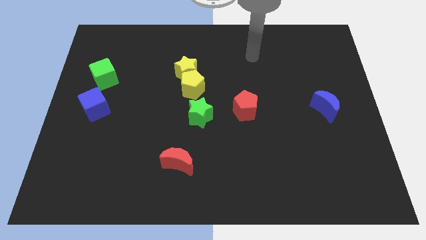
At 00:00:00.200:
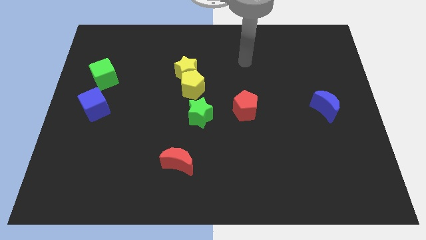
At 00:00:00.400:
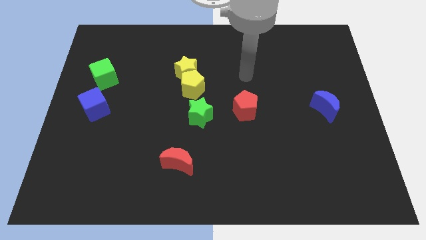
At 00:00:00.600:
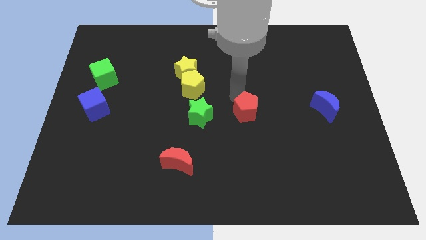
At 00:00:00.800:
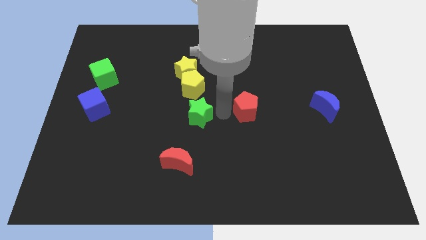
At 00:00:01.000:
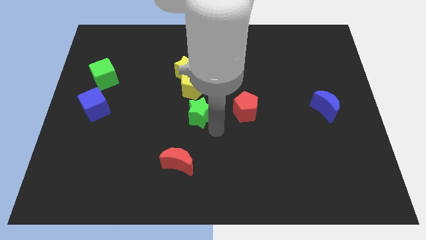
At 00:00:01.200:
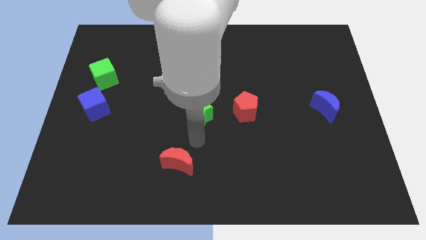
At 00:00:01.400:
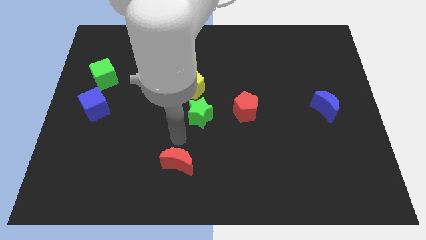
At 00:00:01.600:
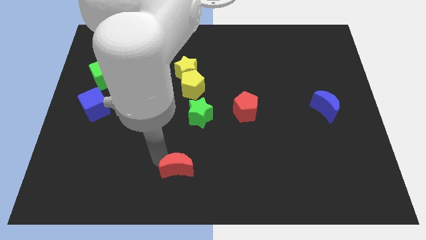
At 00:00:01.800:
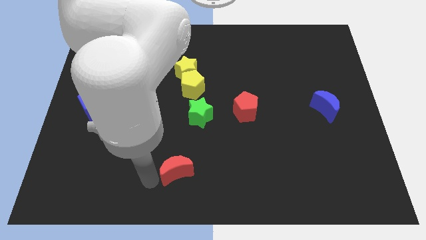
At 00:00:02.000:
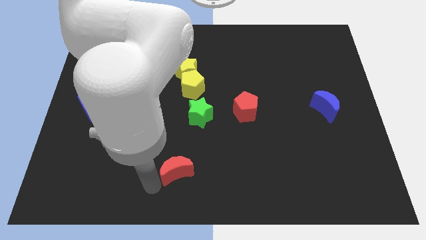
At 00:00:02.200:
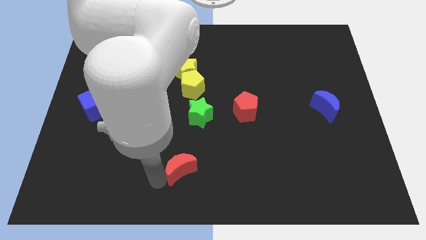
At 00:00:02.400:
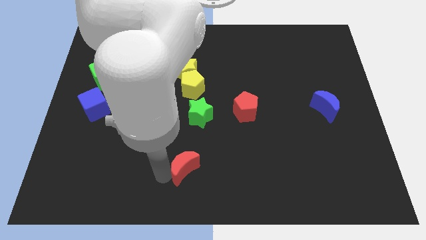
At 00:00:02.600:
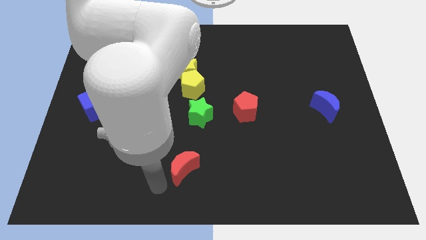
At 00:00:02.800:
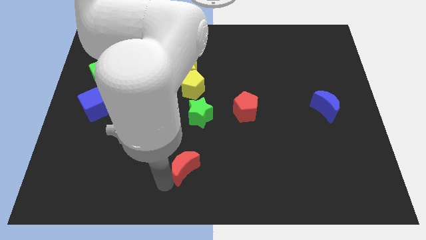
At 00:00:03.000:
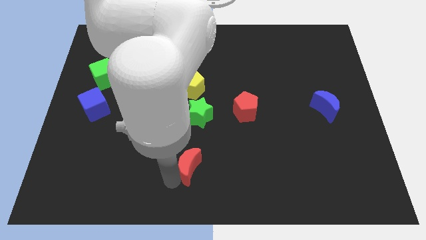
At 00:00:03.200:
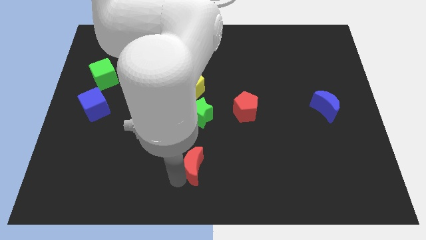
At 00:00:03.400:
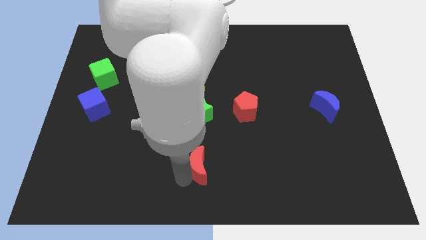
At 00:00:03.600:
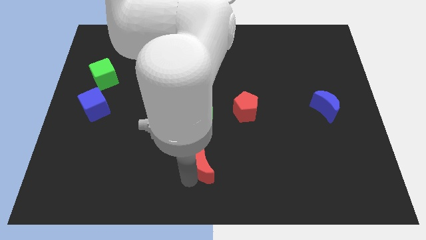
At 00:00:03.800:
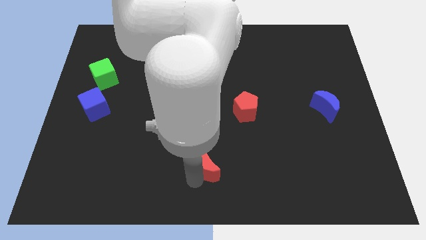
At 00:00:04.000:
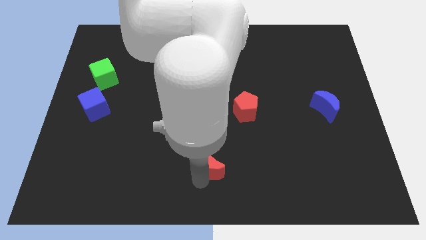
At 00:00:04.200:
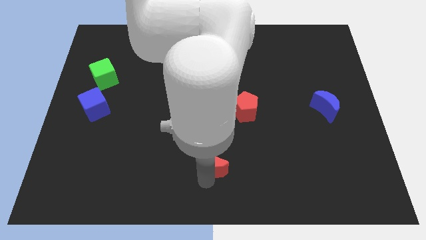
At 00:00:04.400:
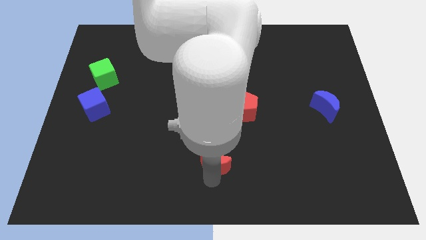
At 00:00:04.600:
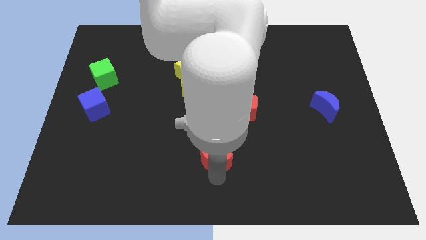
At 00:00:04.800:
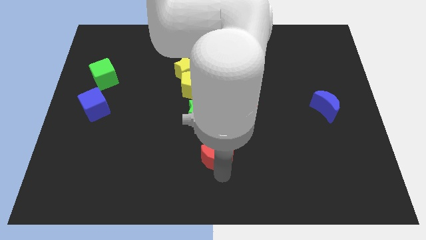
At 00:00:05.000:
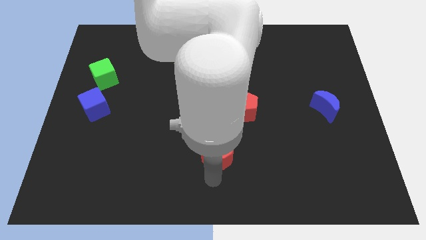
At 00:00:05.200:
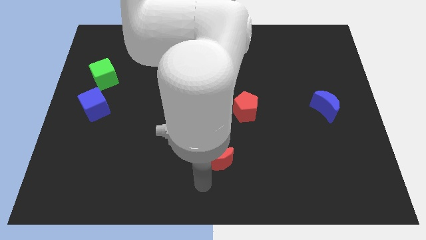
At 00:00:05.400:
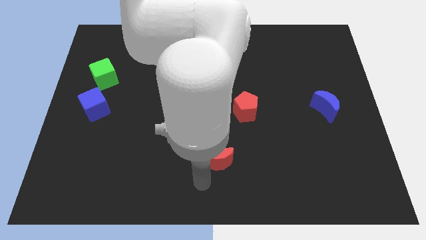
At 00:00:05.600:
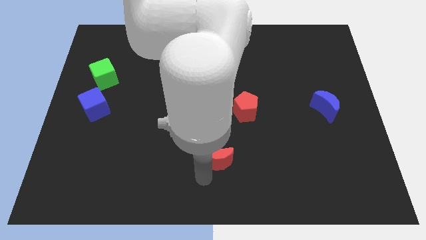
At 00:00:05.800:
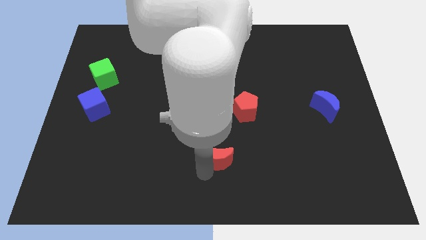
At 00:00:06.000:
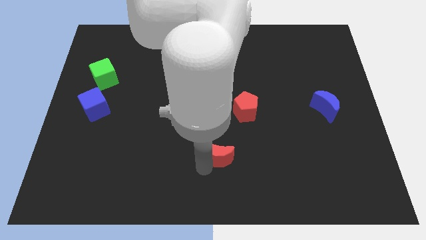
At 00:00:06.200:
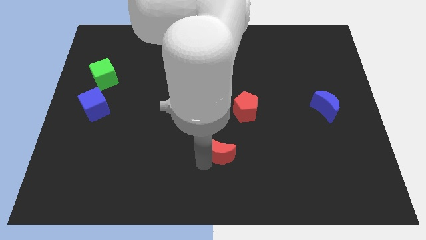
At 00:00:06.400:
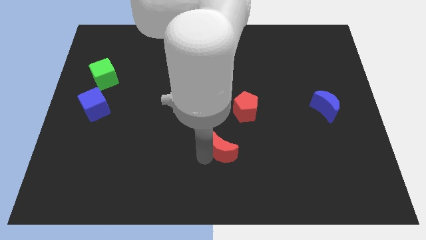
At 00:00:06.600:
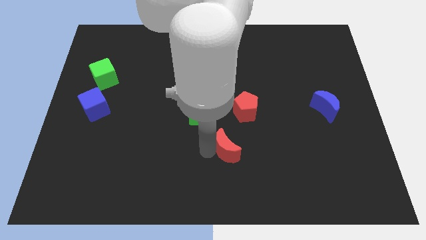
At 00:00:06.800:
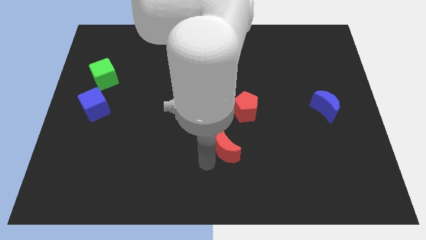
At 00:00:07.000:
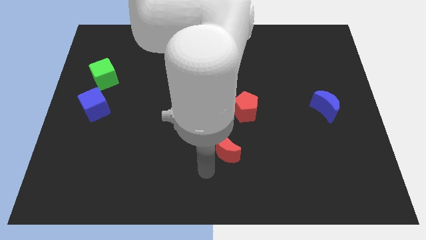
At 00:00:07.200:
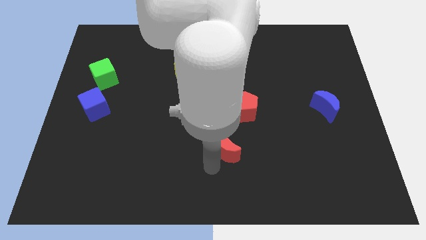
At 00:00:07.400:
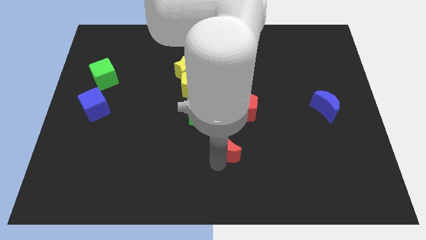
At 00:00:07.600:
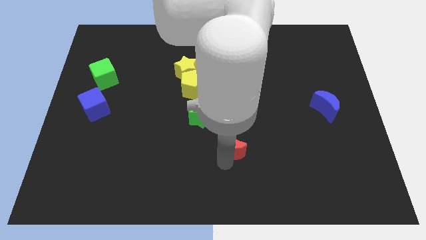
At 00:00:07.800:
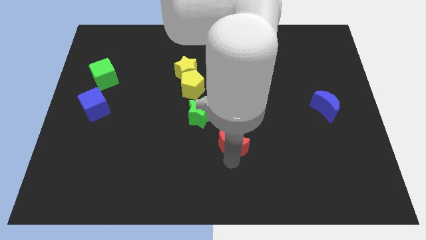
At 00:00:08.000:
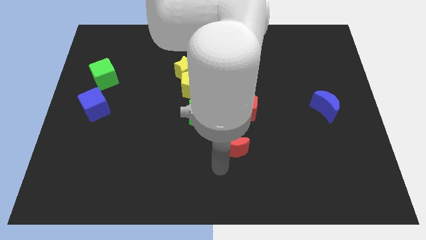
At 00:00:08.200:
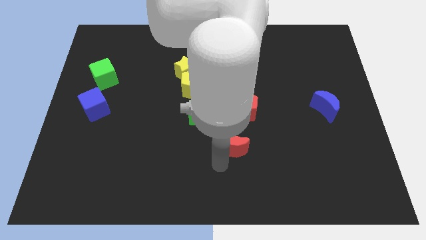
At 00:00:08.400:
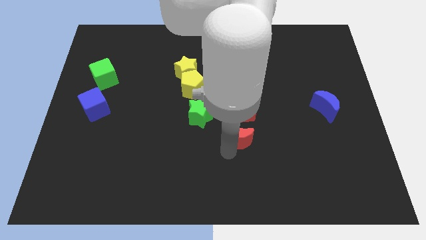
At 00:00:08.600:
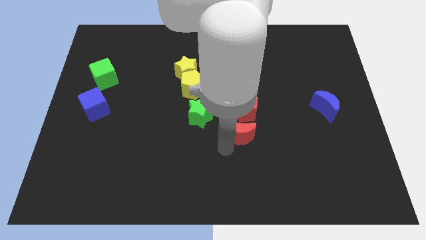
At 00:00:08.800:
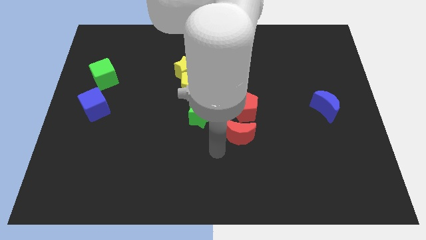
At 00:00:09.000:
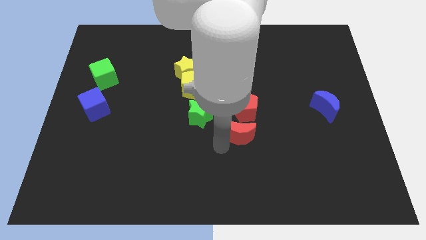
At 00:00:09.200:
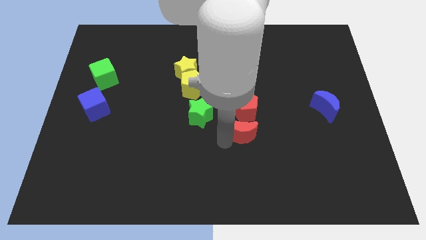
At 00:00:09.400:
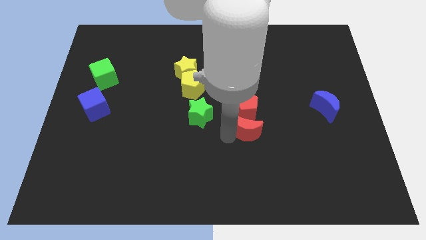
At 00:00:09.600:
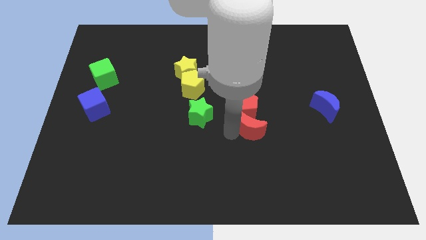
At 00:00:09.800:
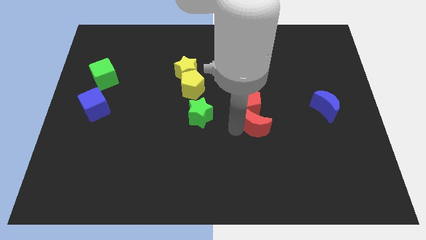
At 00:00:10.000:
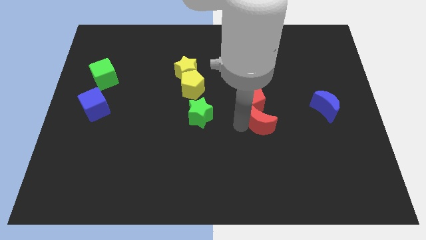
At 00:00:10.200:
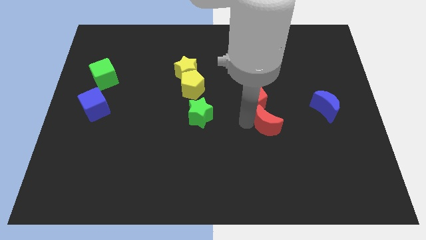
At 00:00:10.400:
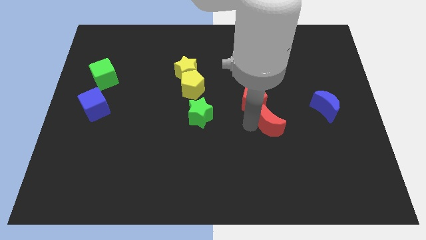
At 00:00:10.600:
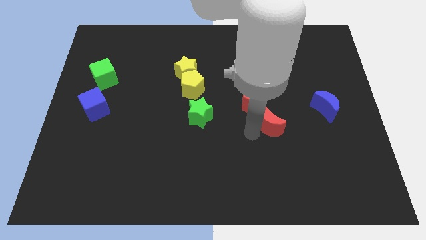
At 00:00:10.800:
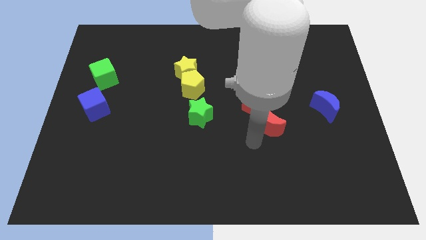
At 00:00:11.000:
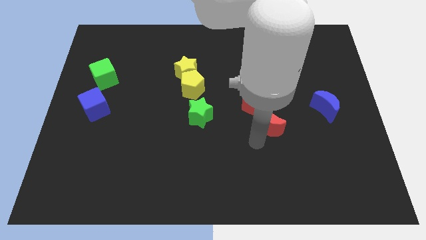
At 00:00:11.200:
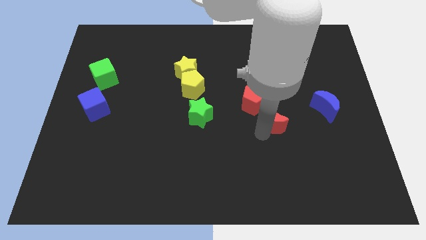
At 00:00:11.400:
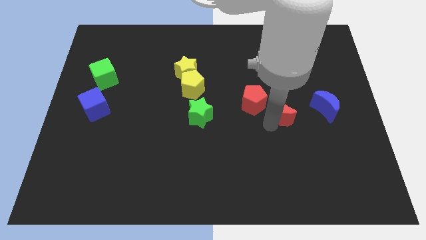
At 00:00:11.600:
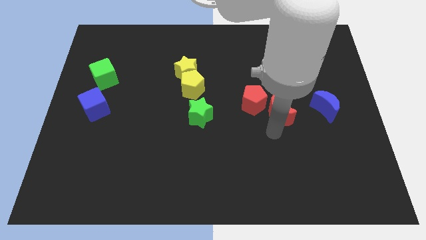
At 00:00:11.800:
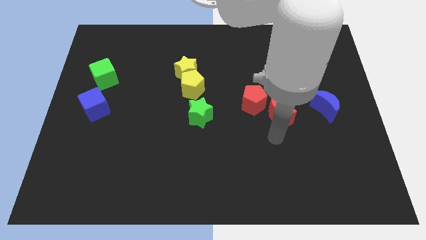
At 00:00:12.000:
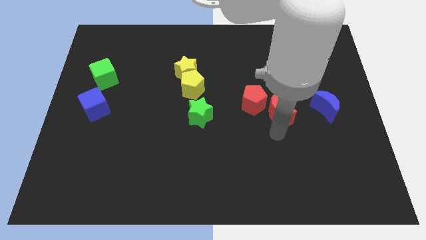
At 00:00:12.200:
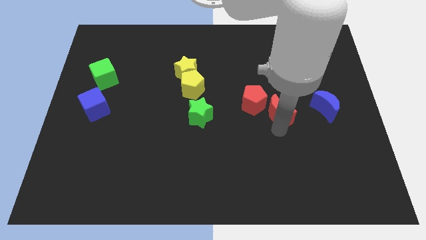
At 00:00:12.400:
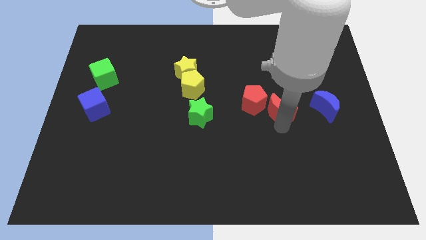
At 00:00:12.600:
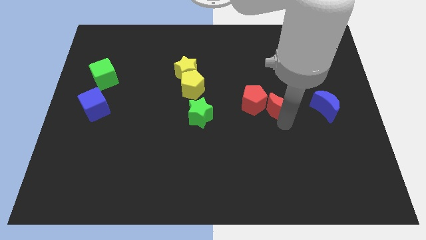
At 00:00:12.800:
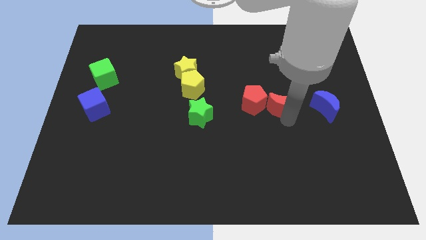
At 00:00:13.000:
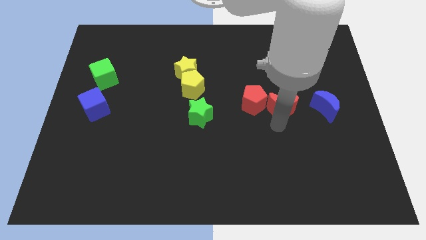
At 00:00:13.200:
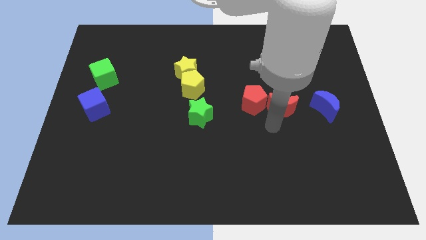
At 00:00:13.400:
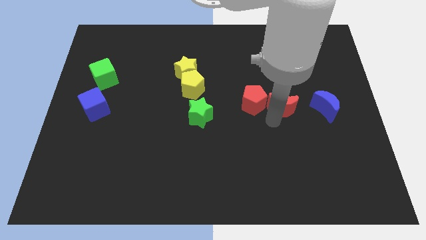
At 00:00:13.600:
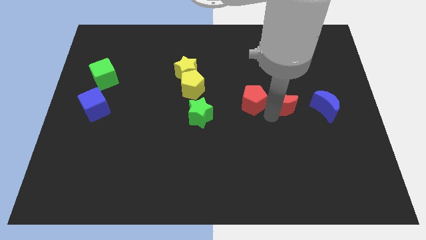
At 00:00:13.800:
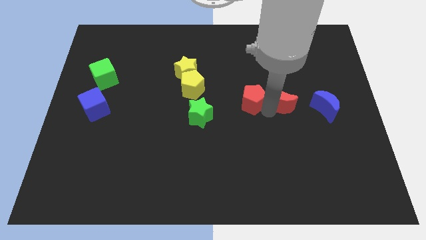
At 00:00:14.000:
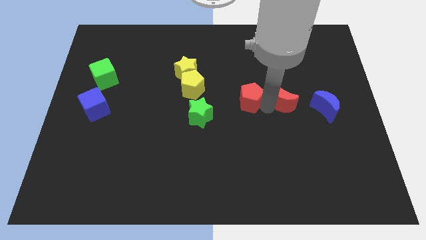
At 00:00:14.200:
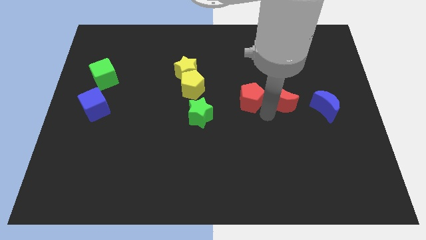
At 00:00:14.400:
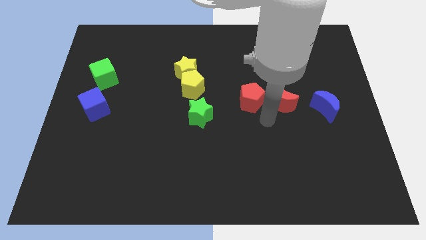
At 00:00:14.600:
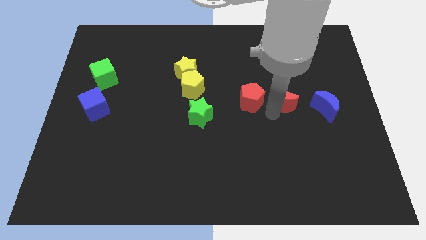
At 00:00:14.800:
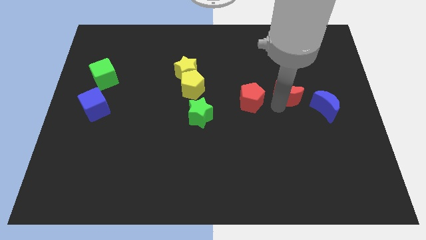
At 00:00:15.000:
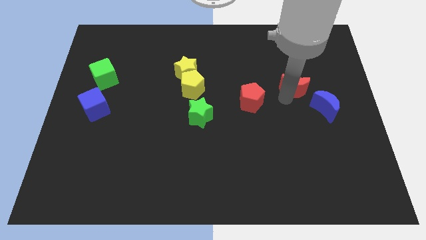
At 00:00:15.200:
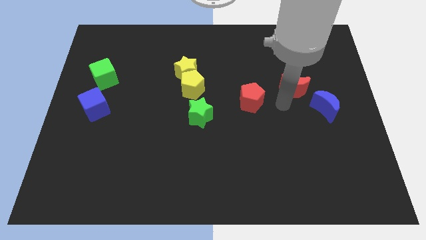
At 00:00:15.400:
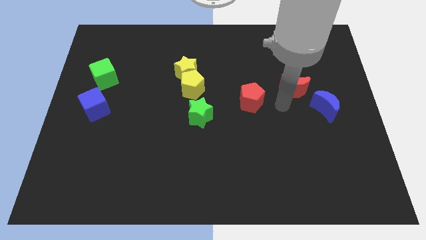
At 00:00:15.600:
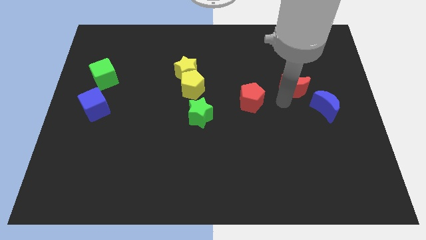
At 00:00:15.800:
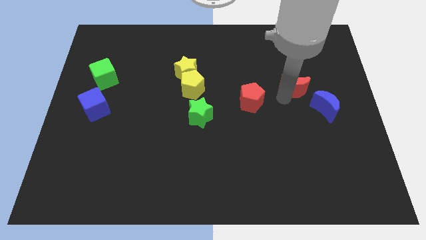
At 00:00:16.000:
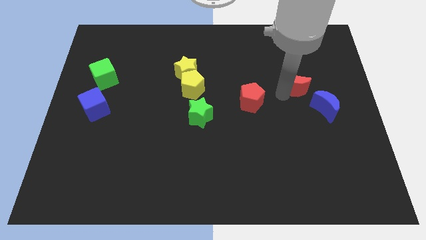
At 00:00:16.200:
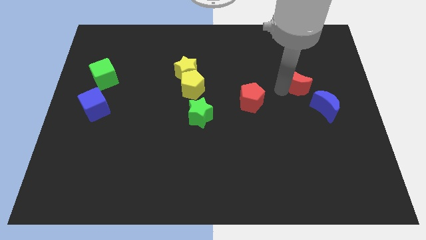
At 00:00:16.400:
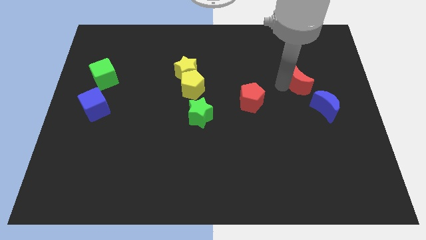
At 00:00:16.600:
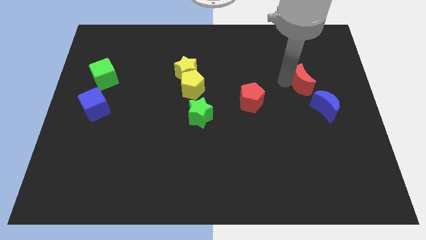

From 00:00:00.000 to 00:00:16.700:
put the red moon above the blue moon
